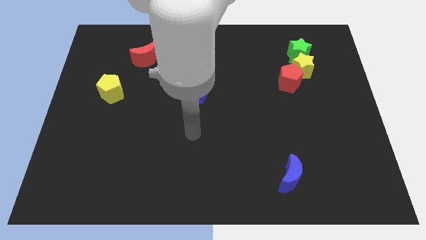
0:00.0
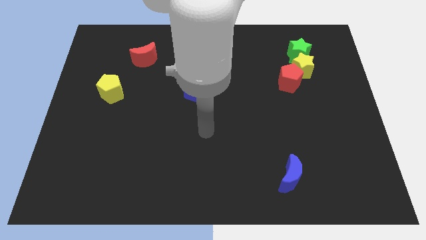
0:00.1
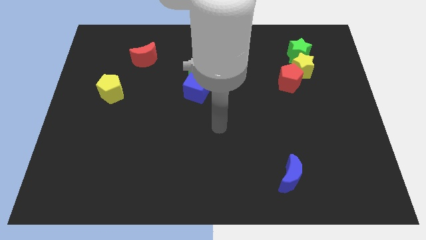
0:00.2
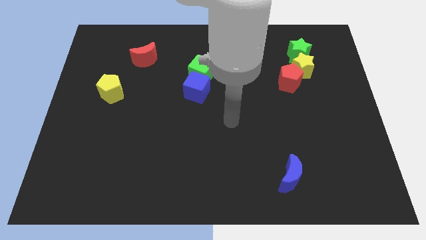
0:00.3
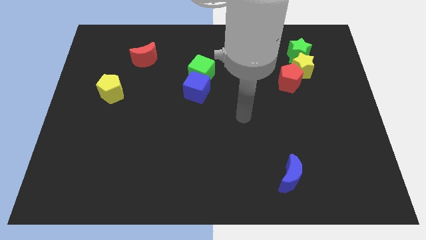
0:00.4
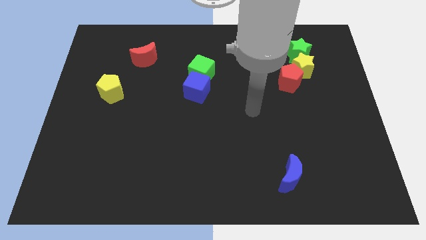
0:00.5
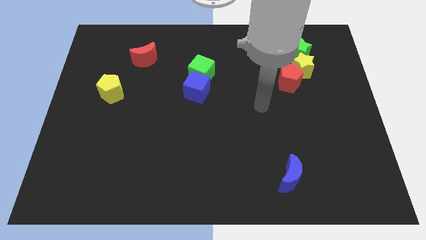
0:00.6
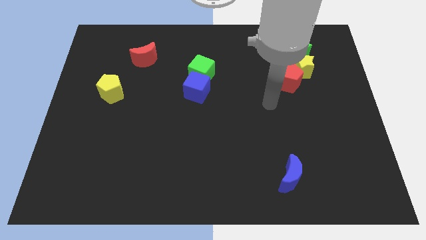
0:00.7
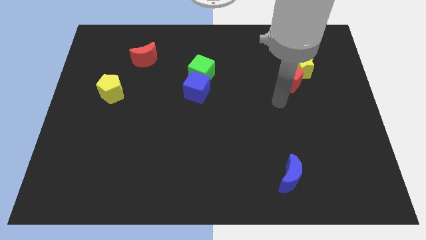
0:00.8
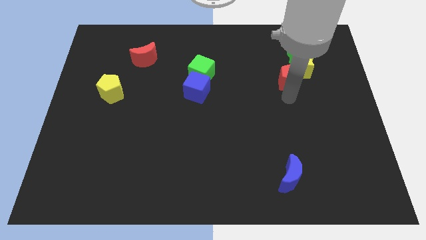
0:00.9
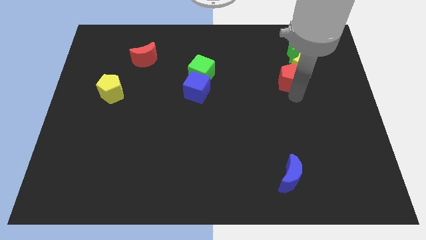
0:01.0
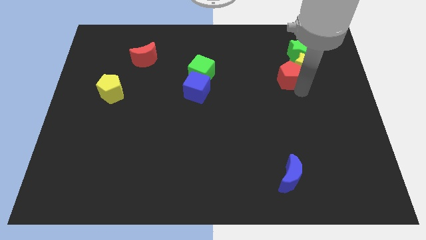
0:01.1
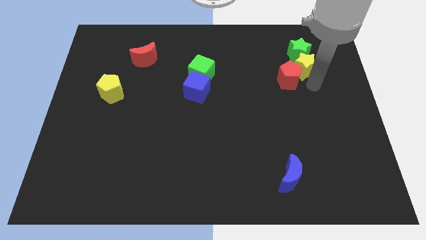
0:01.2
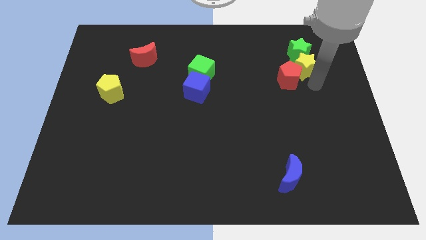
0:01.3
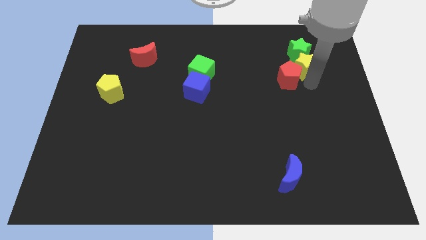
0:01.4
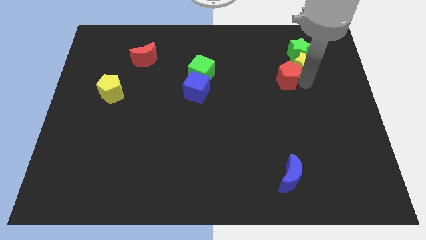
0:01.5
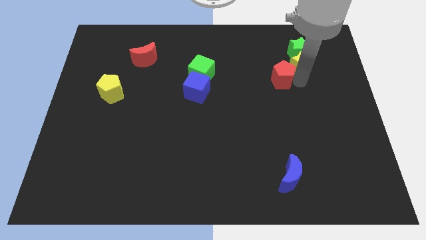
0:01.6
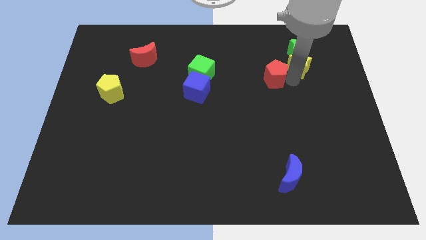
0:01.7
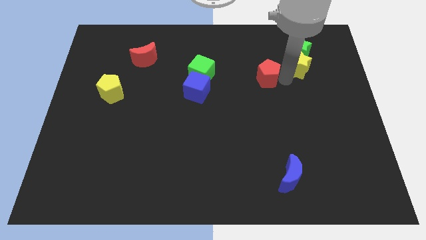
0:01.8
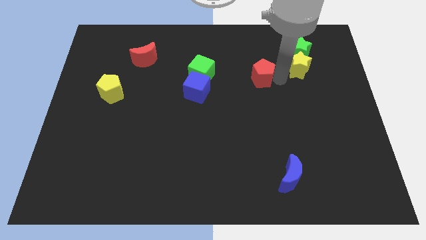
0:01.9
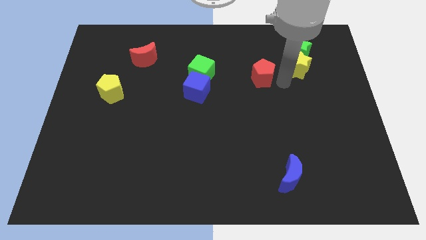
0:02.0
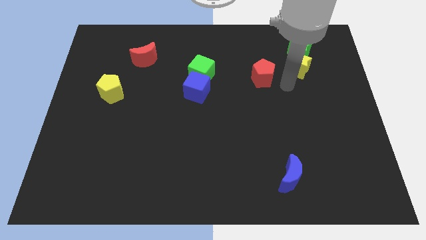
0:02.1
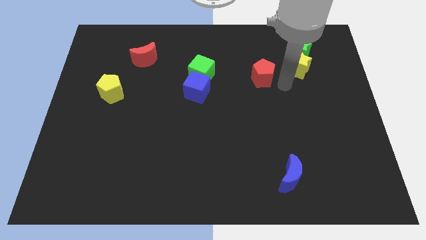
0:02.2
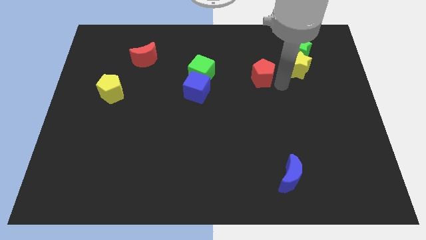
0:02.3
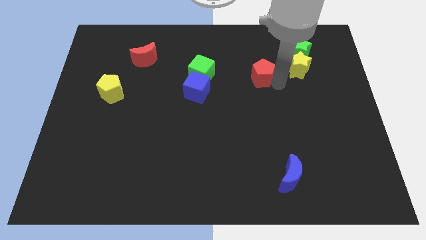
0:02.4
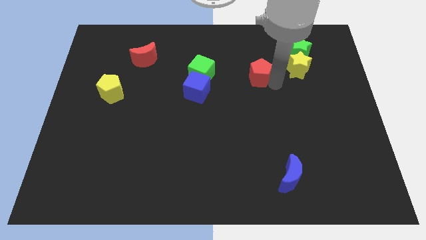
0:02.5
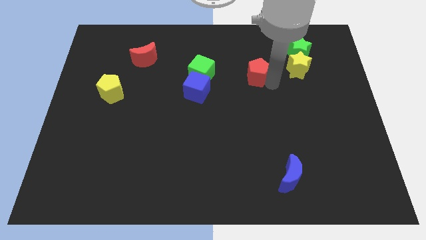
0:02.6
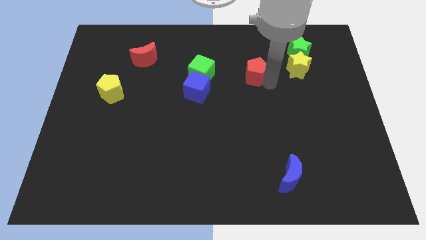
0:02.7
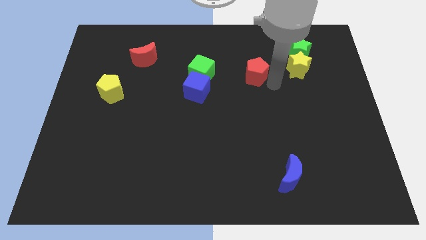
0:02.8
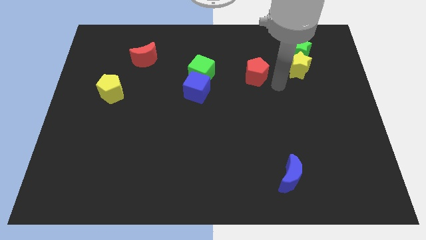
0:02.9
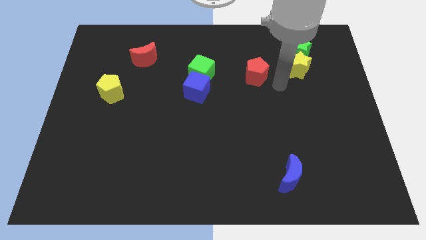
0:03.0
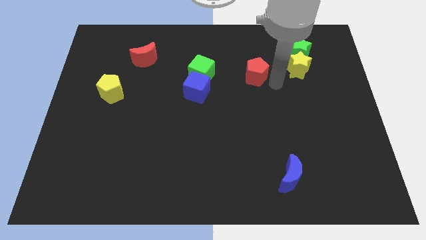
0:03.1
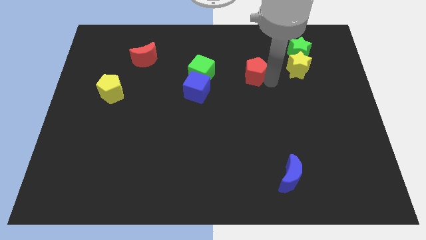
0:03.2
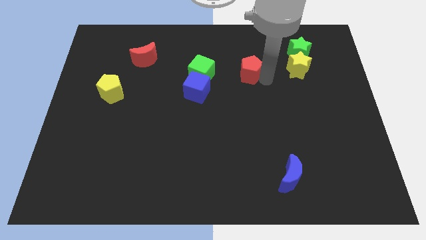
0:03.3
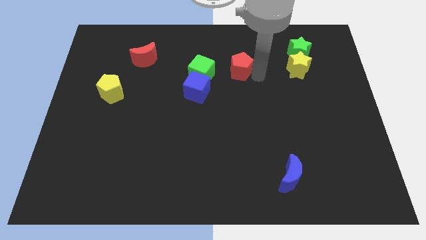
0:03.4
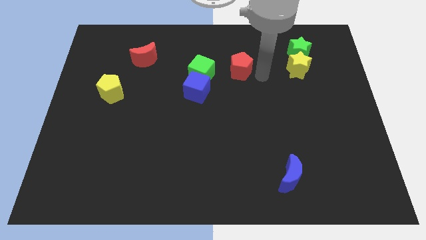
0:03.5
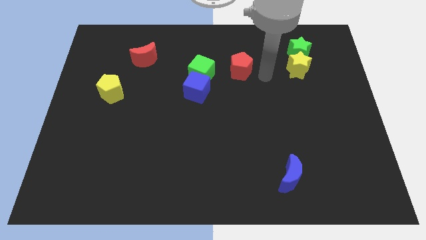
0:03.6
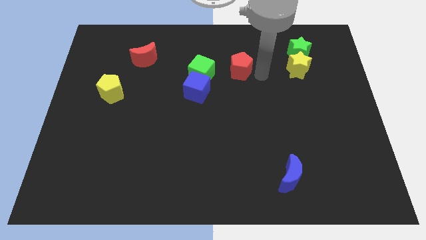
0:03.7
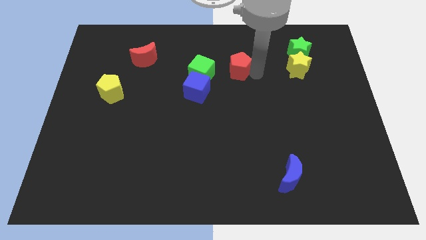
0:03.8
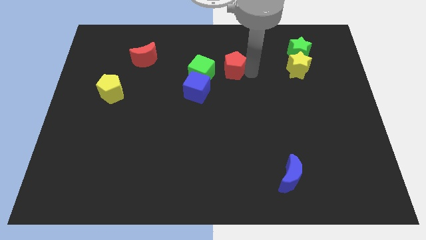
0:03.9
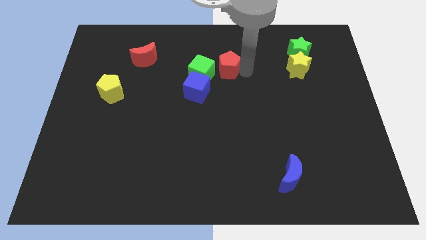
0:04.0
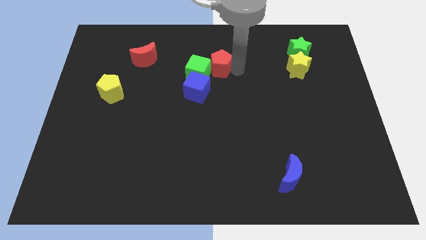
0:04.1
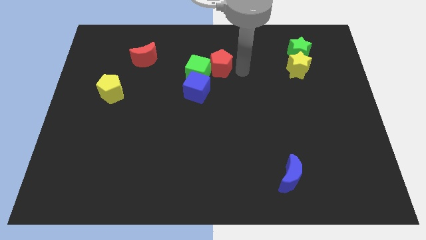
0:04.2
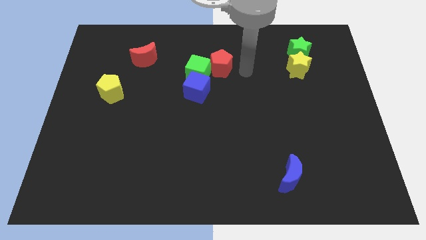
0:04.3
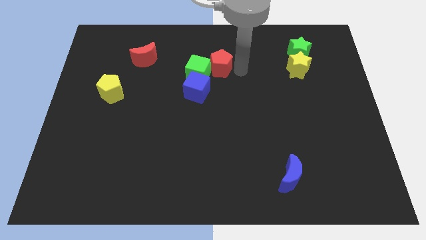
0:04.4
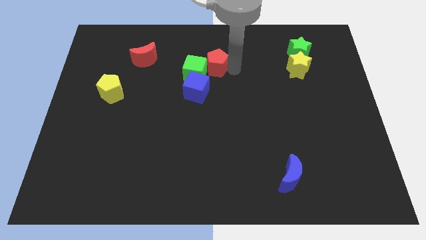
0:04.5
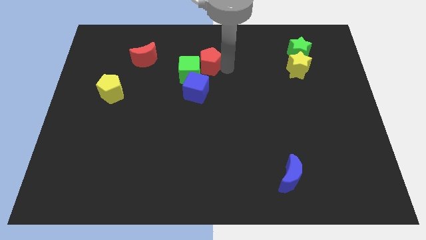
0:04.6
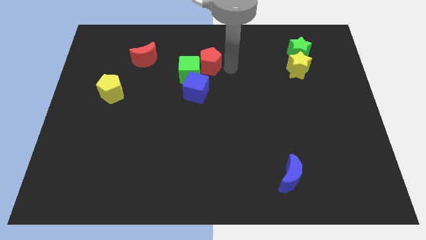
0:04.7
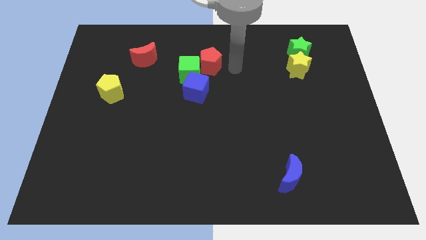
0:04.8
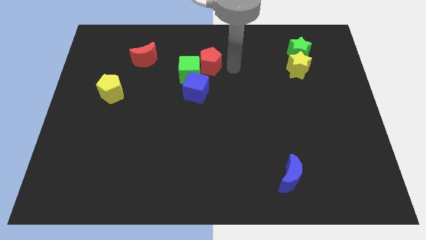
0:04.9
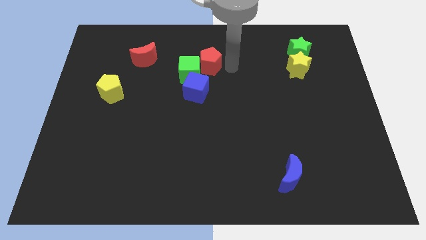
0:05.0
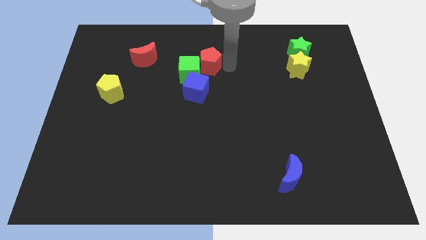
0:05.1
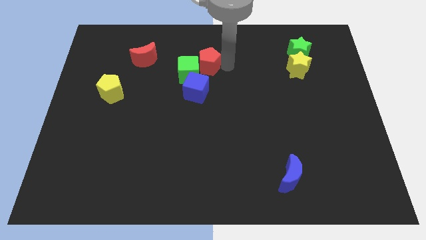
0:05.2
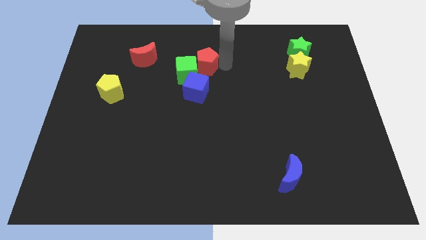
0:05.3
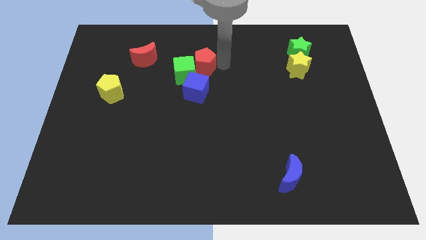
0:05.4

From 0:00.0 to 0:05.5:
push the red pentagon to the left

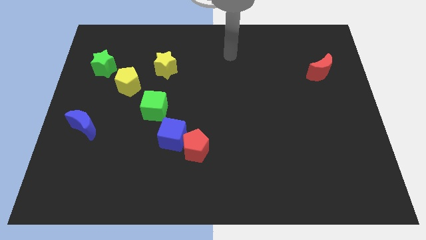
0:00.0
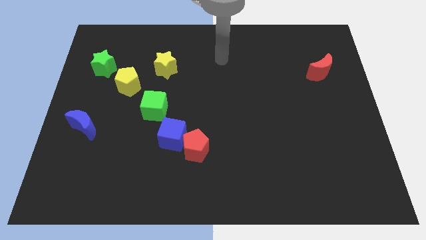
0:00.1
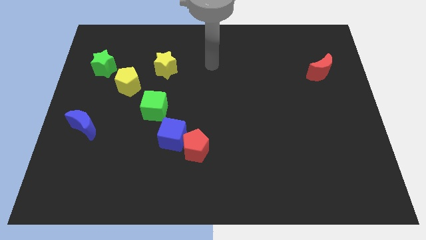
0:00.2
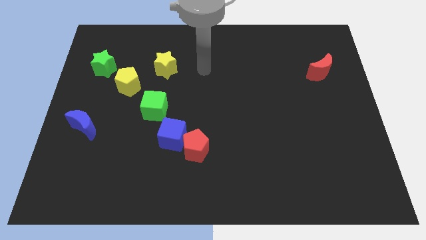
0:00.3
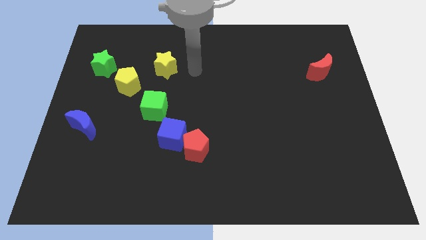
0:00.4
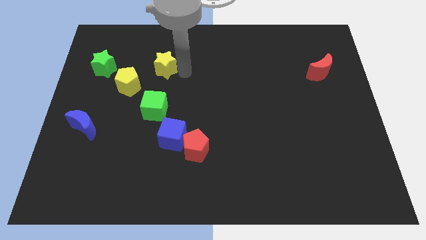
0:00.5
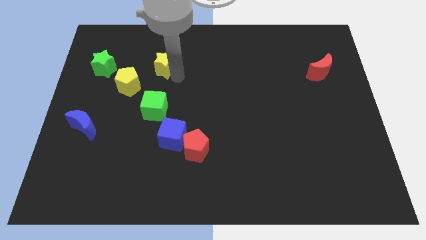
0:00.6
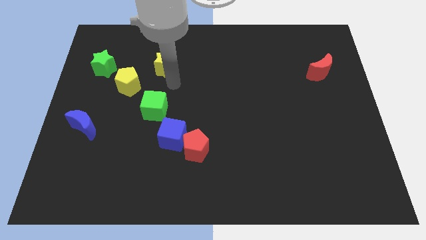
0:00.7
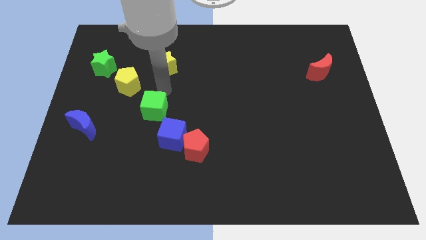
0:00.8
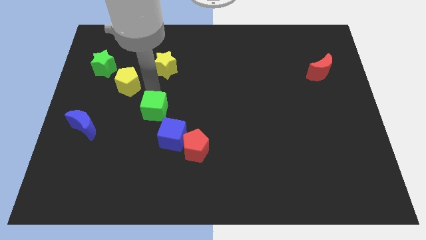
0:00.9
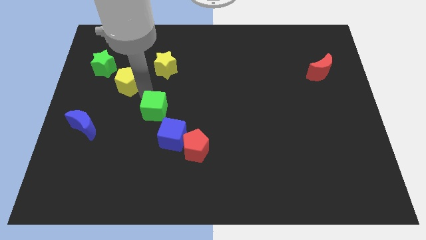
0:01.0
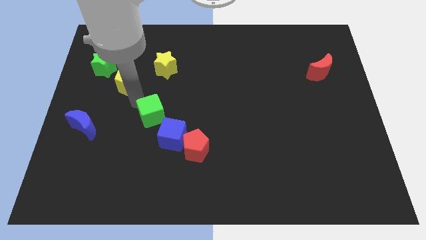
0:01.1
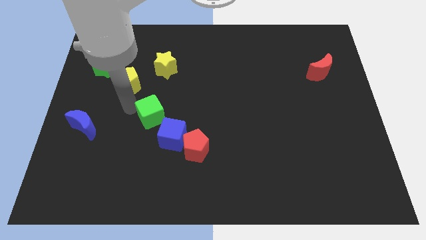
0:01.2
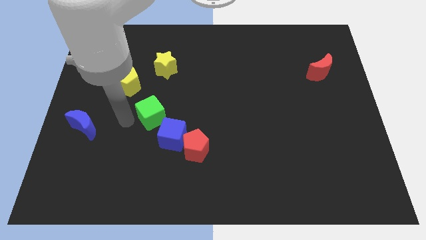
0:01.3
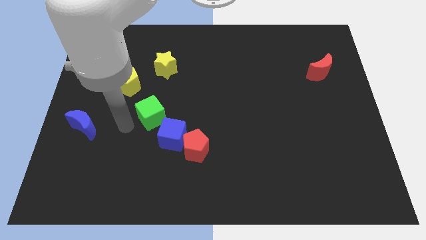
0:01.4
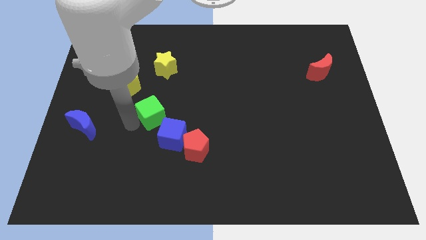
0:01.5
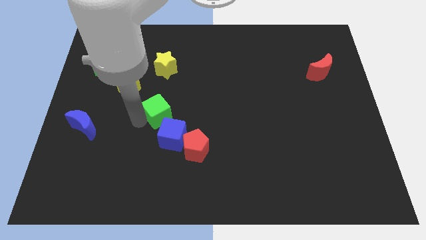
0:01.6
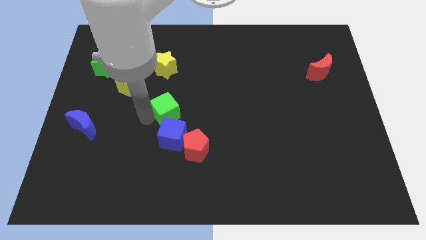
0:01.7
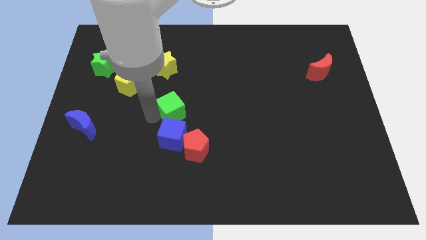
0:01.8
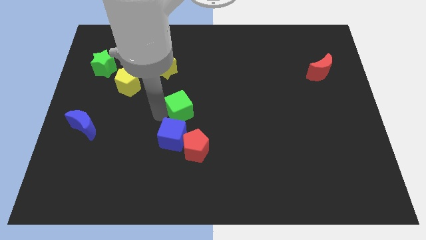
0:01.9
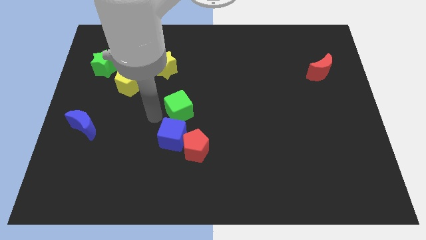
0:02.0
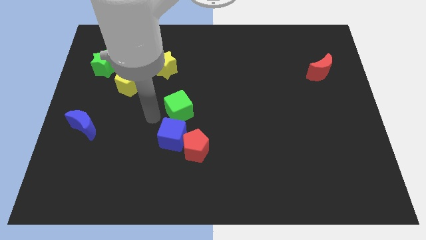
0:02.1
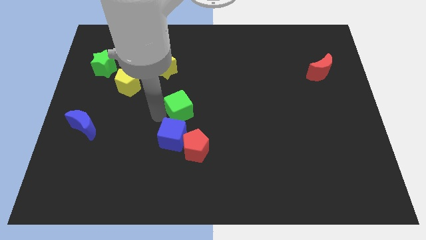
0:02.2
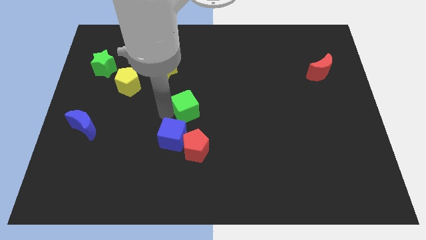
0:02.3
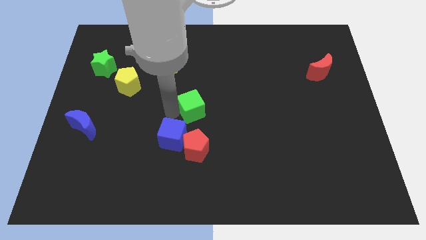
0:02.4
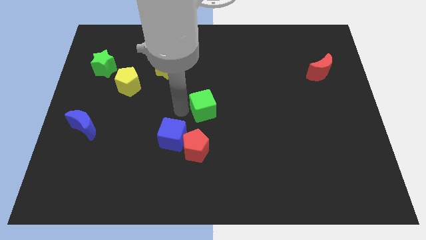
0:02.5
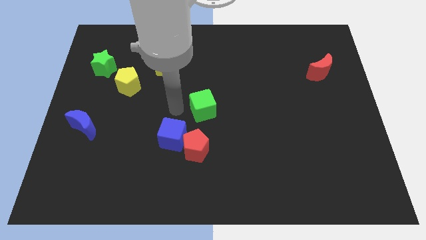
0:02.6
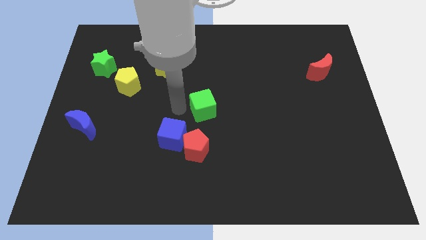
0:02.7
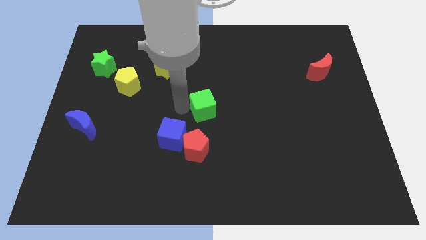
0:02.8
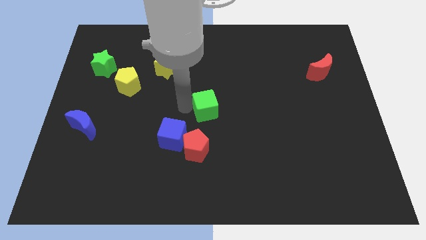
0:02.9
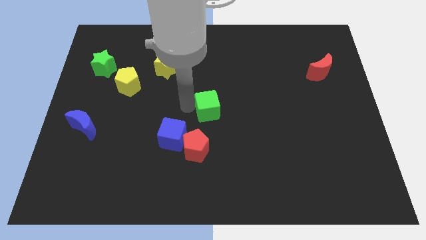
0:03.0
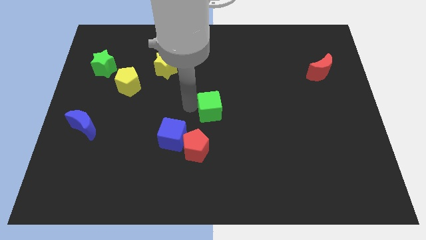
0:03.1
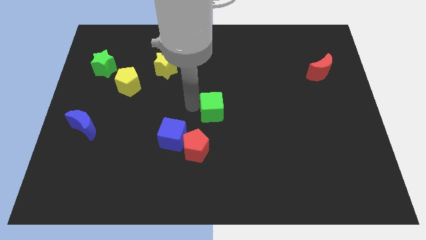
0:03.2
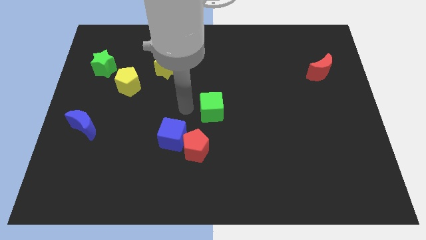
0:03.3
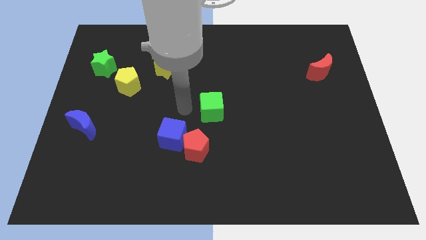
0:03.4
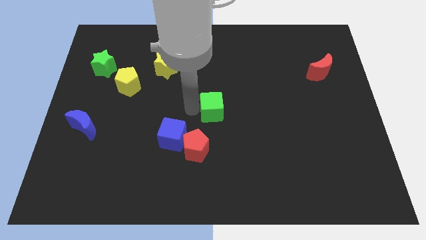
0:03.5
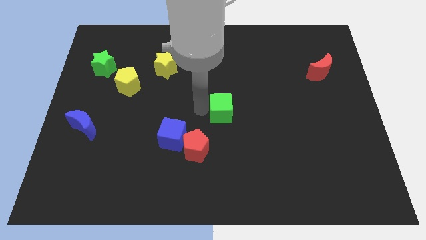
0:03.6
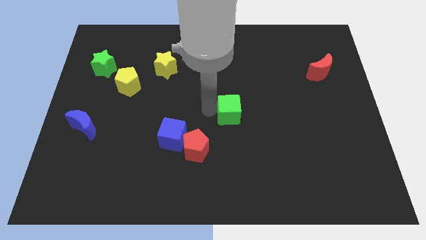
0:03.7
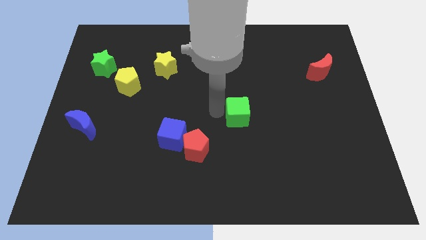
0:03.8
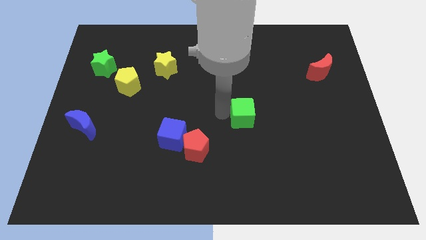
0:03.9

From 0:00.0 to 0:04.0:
move the green cube to the right
